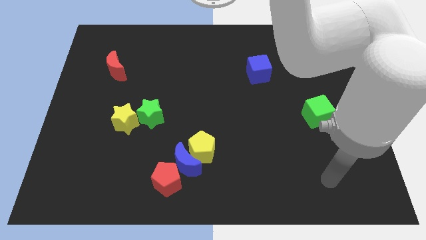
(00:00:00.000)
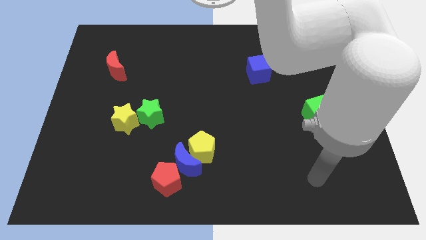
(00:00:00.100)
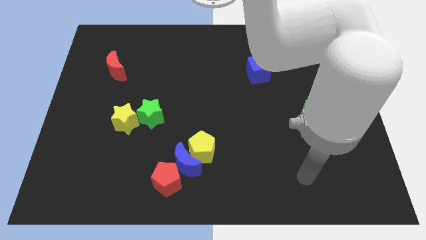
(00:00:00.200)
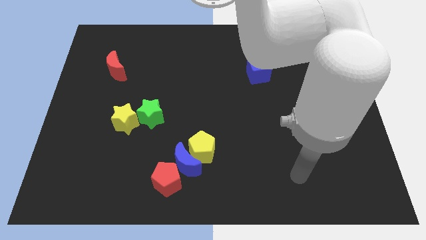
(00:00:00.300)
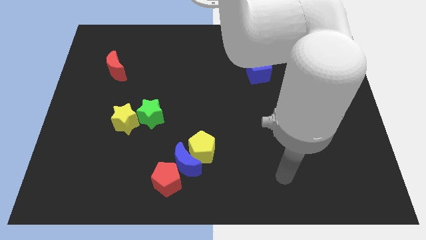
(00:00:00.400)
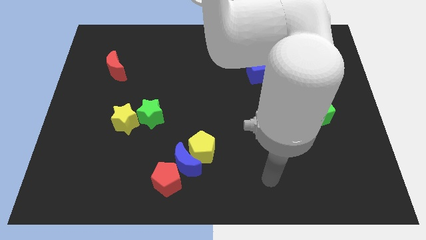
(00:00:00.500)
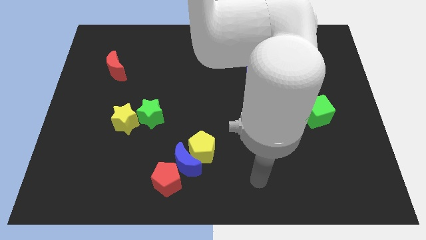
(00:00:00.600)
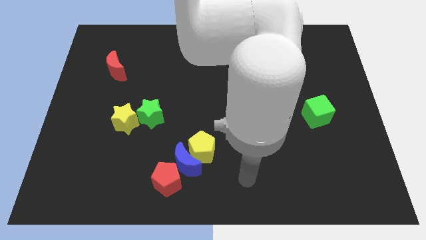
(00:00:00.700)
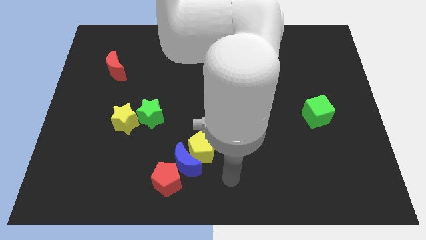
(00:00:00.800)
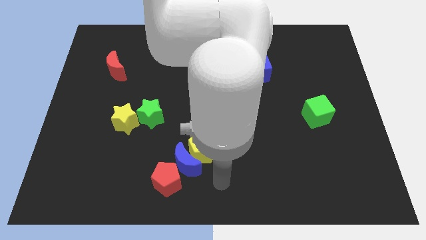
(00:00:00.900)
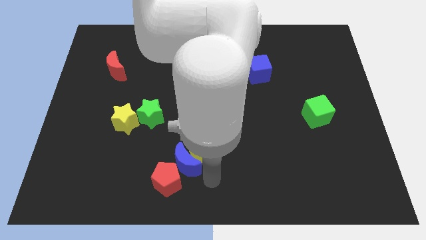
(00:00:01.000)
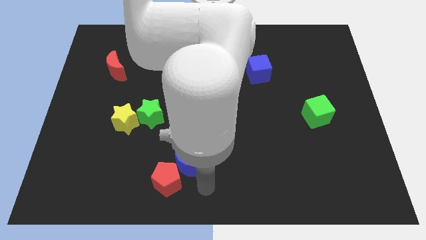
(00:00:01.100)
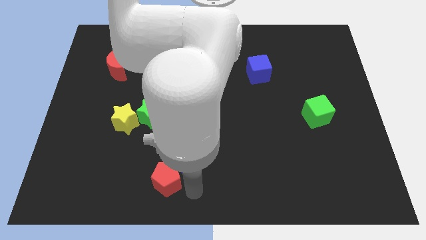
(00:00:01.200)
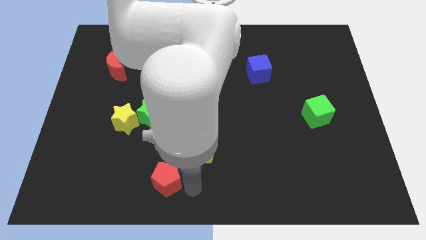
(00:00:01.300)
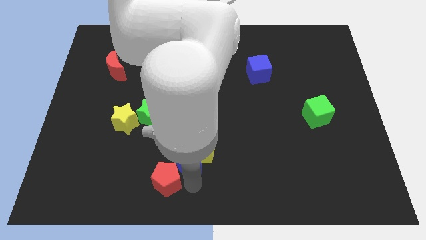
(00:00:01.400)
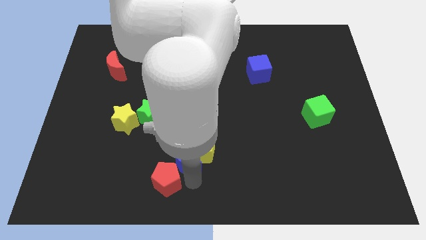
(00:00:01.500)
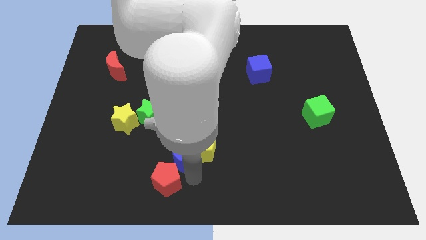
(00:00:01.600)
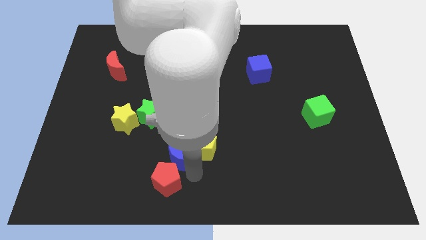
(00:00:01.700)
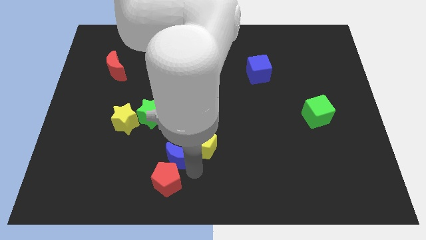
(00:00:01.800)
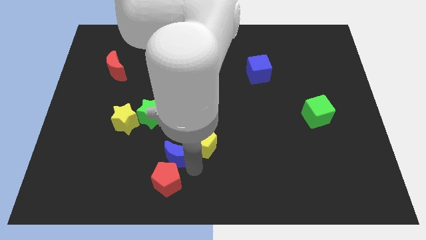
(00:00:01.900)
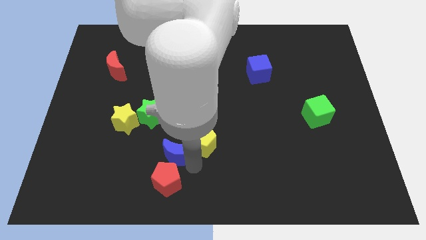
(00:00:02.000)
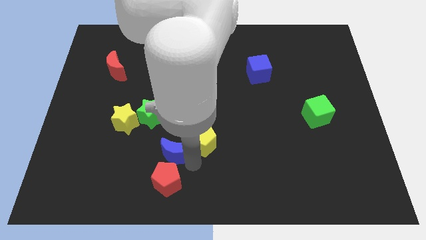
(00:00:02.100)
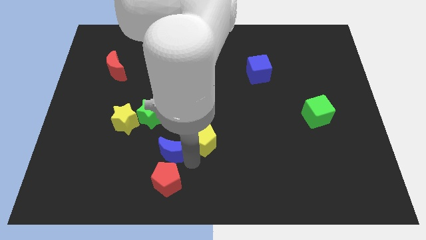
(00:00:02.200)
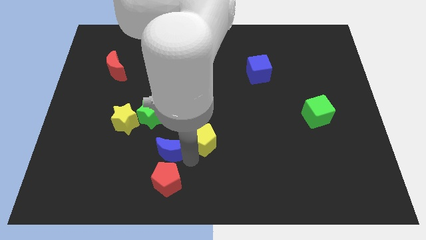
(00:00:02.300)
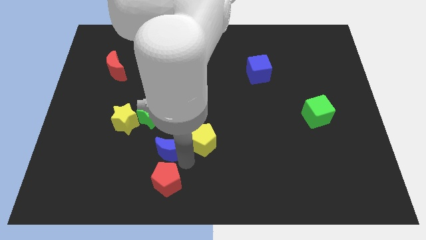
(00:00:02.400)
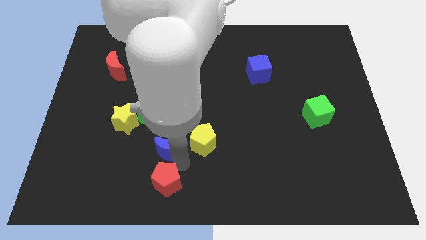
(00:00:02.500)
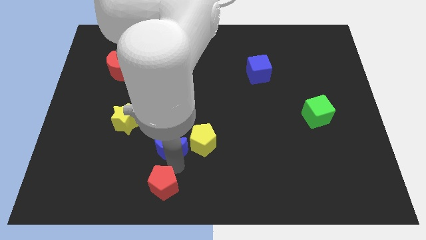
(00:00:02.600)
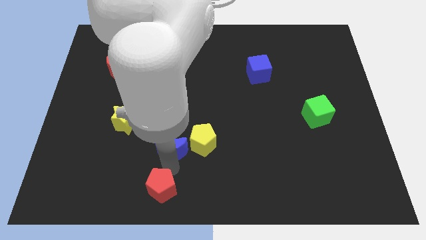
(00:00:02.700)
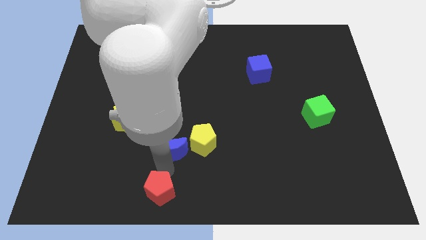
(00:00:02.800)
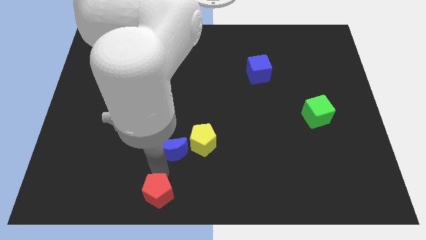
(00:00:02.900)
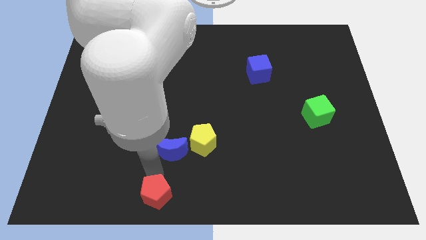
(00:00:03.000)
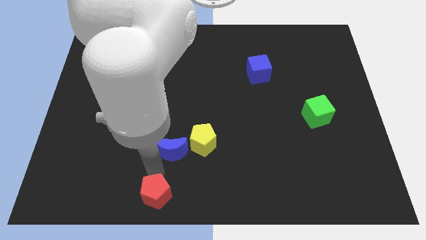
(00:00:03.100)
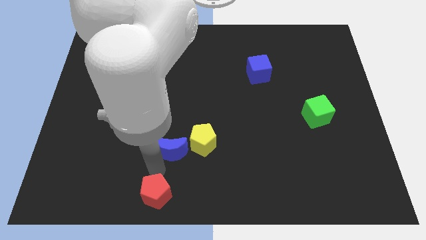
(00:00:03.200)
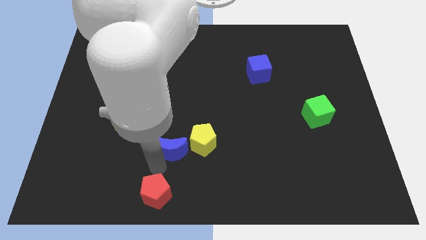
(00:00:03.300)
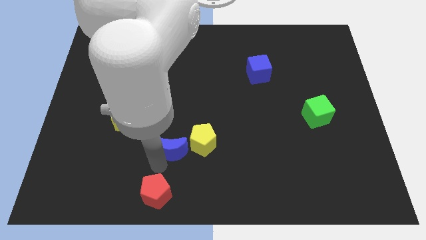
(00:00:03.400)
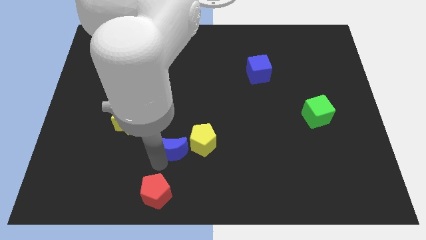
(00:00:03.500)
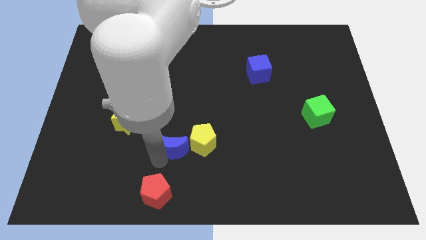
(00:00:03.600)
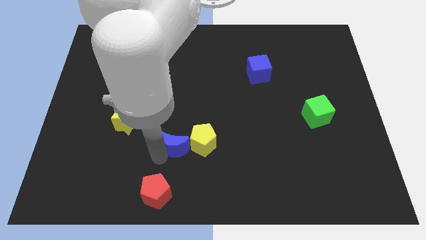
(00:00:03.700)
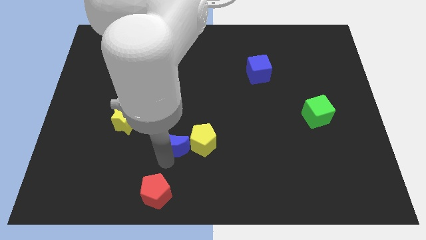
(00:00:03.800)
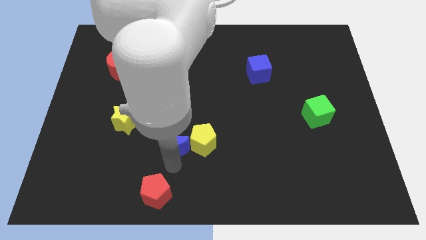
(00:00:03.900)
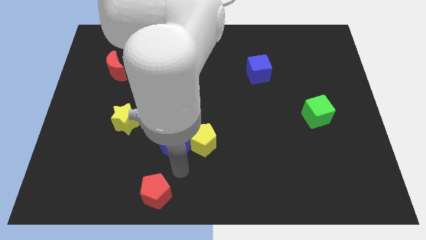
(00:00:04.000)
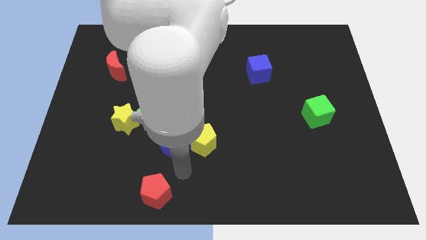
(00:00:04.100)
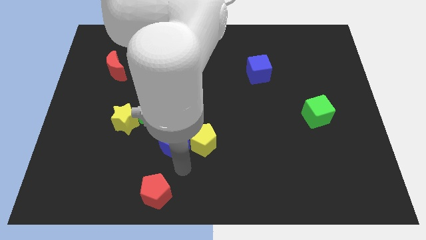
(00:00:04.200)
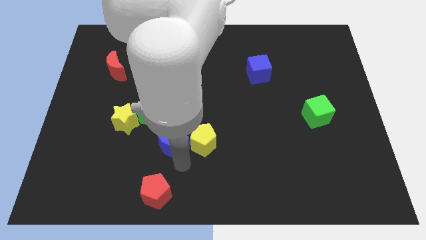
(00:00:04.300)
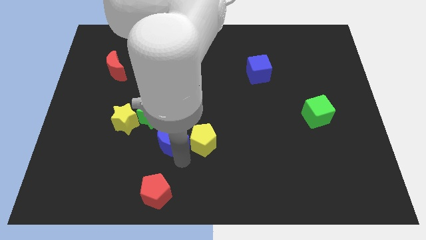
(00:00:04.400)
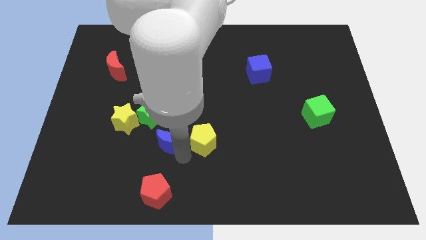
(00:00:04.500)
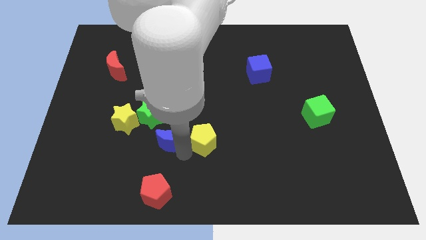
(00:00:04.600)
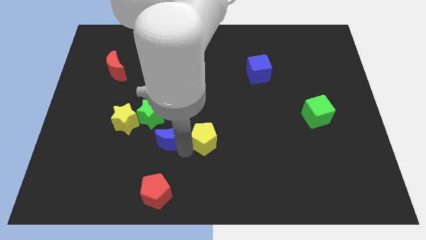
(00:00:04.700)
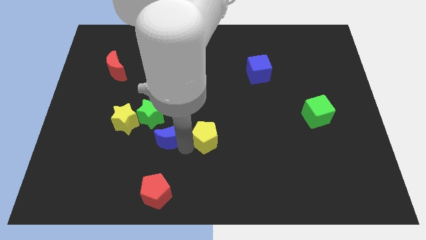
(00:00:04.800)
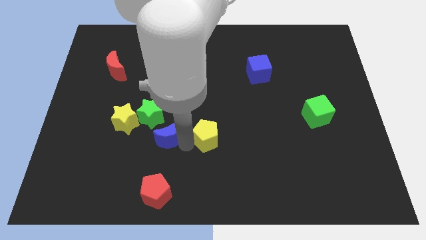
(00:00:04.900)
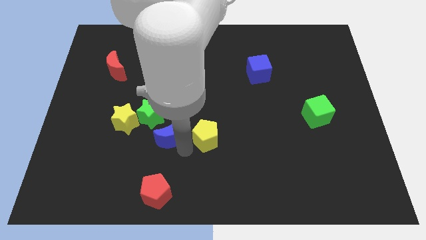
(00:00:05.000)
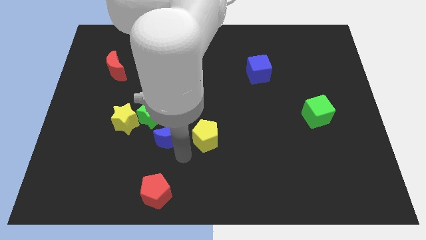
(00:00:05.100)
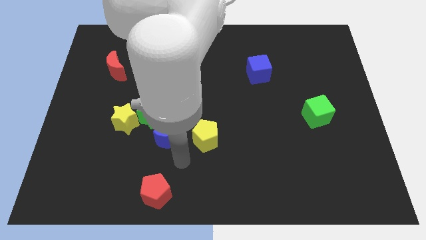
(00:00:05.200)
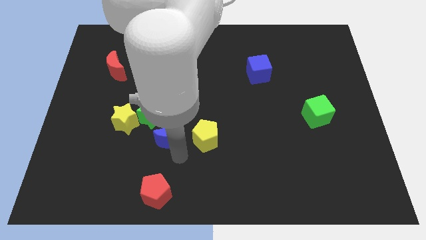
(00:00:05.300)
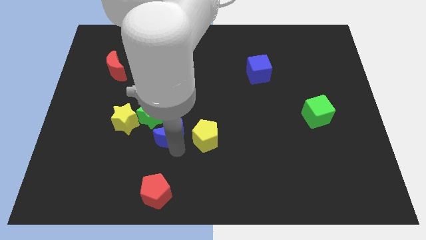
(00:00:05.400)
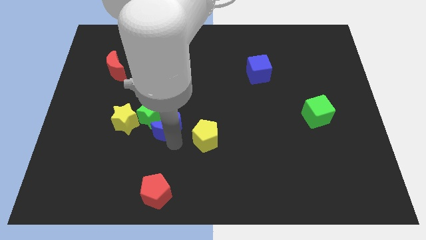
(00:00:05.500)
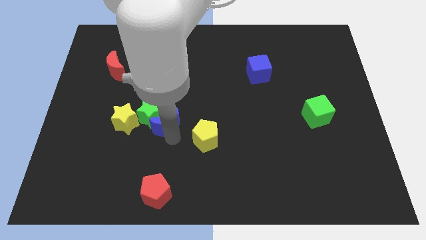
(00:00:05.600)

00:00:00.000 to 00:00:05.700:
pull the blue moon apart from the yellow pentagon and red pentagon

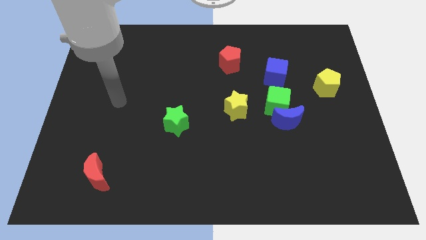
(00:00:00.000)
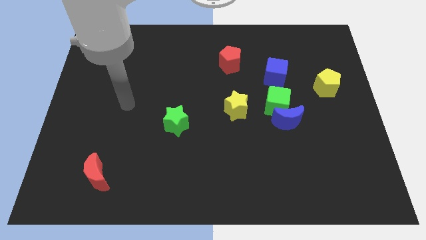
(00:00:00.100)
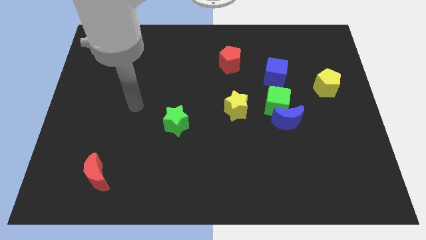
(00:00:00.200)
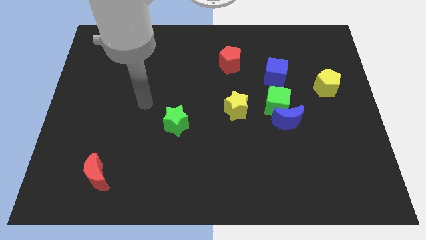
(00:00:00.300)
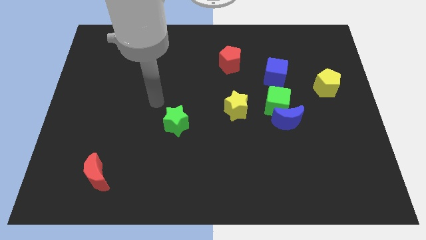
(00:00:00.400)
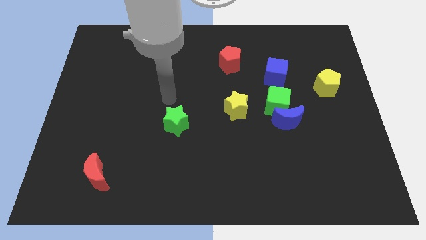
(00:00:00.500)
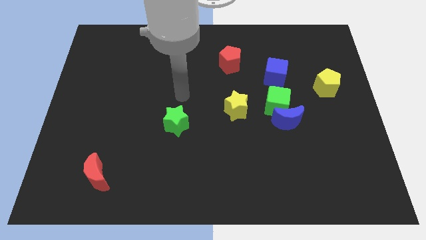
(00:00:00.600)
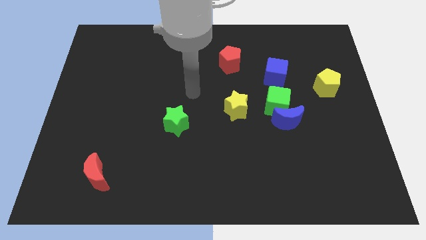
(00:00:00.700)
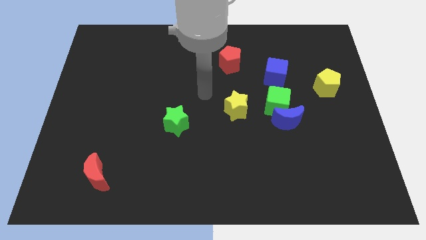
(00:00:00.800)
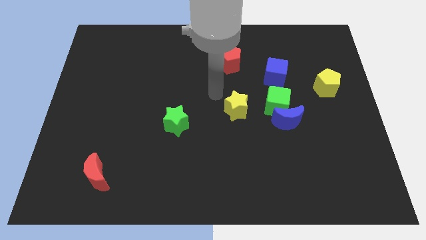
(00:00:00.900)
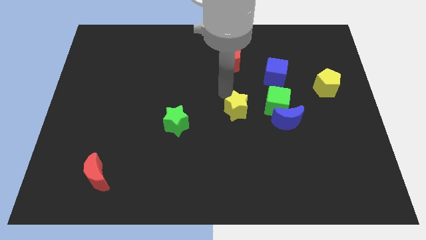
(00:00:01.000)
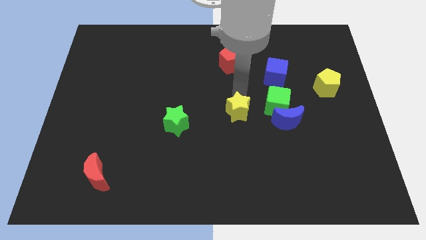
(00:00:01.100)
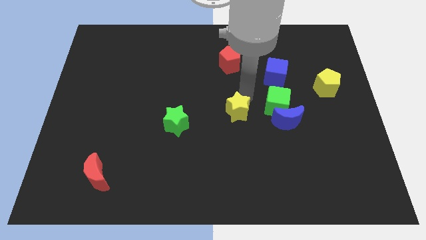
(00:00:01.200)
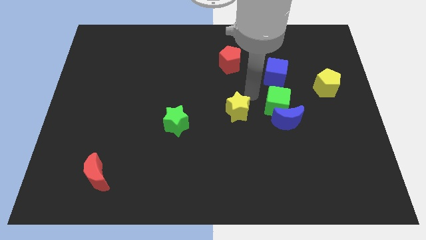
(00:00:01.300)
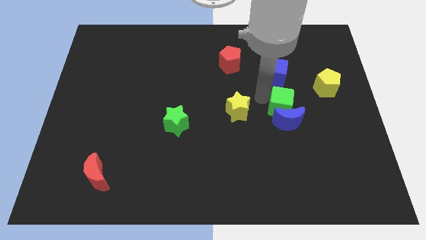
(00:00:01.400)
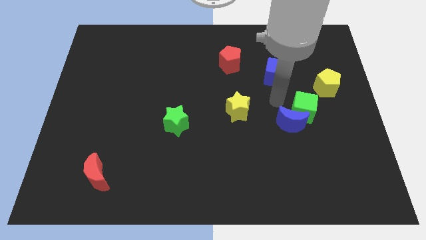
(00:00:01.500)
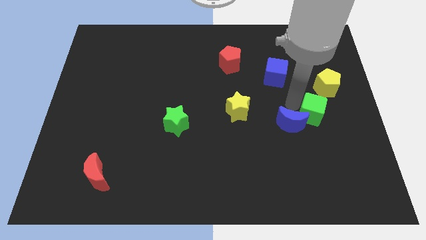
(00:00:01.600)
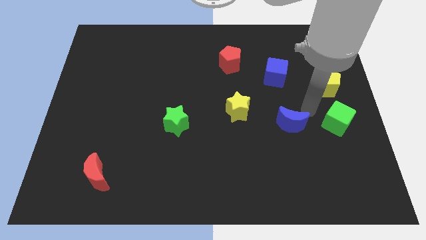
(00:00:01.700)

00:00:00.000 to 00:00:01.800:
separate the blue moon from the green cube

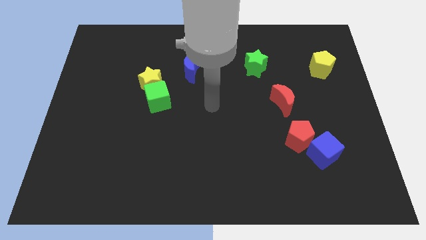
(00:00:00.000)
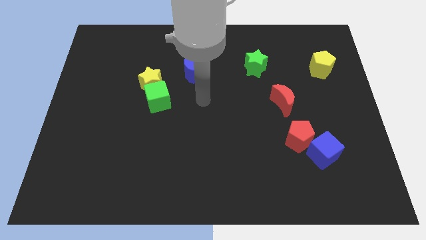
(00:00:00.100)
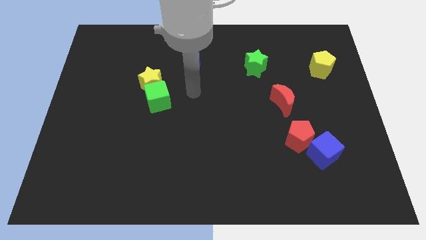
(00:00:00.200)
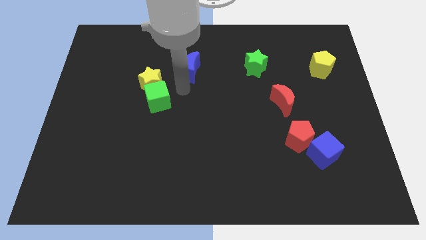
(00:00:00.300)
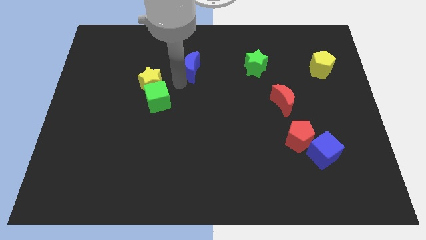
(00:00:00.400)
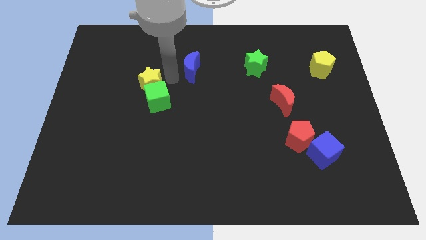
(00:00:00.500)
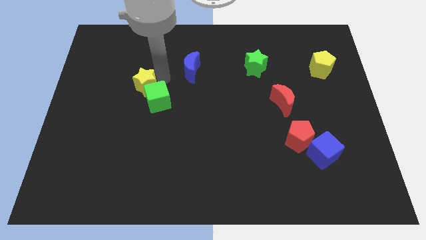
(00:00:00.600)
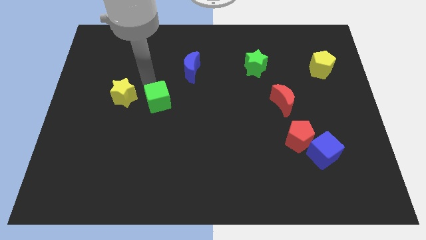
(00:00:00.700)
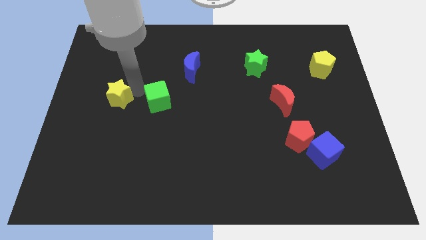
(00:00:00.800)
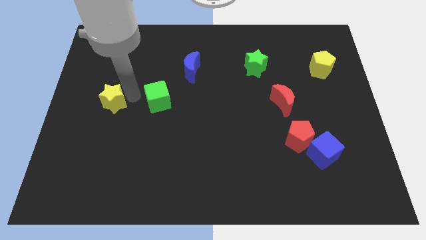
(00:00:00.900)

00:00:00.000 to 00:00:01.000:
separate the green cube from the yellow star

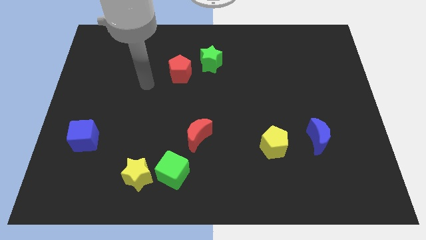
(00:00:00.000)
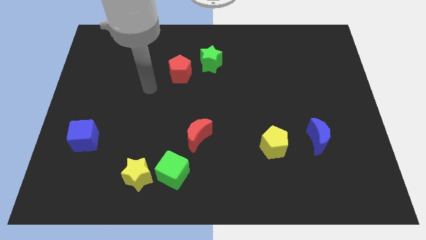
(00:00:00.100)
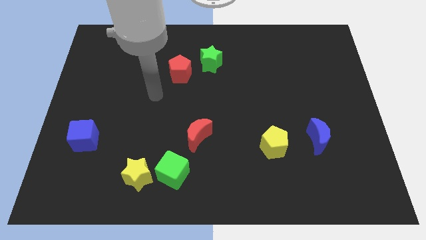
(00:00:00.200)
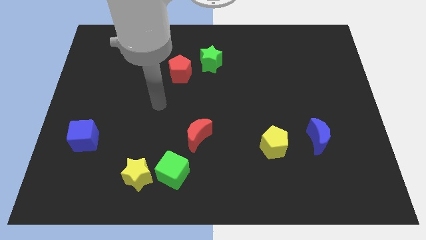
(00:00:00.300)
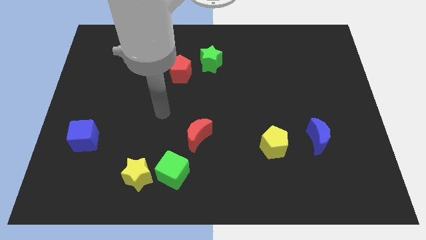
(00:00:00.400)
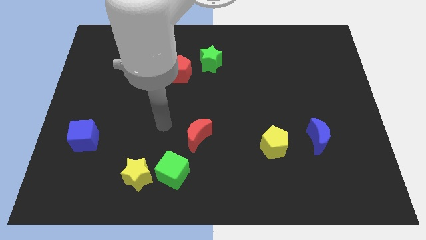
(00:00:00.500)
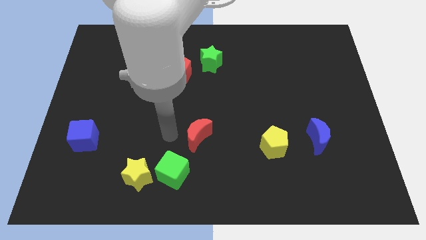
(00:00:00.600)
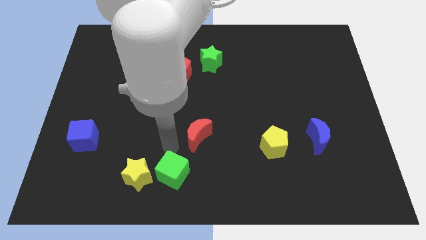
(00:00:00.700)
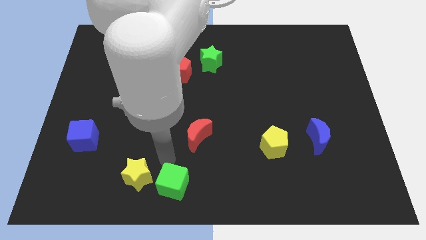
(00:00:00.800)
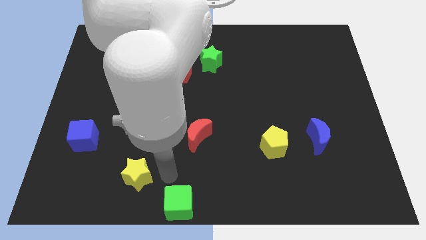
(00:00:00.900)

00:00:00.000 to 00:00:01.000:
move the yellow star away from the green cube
